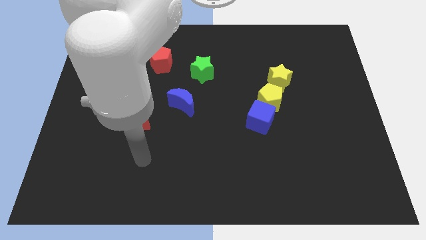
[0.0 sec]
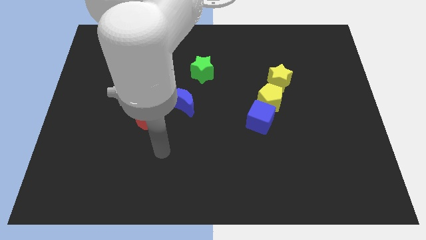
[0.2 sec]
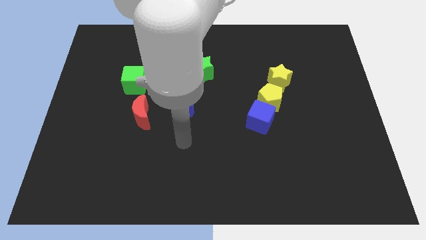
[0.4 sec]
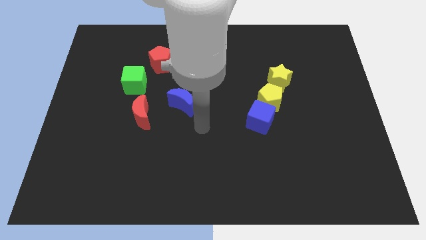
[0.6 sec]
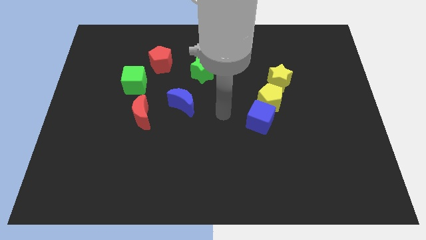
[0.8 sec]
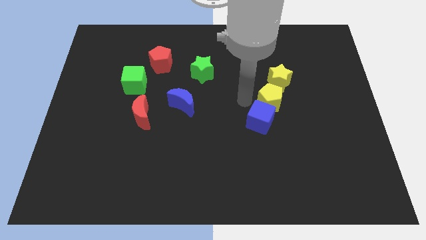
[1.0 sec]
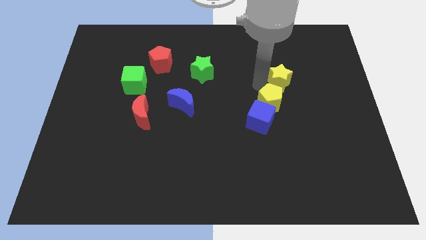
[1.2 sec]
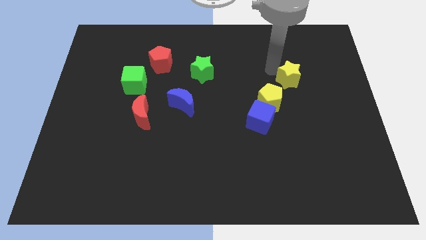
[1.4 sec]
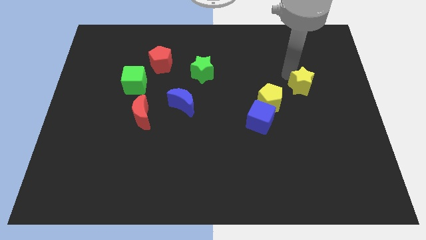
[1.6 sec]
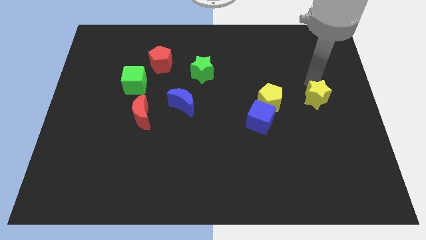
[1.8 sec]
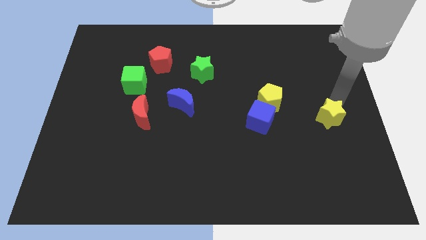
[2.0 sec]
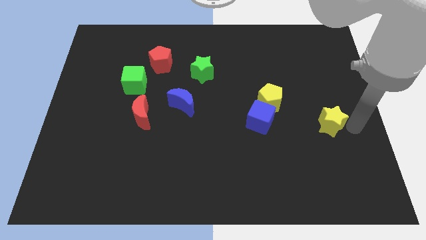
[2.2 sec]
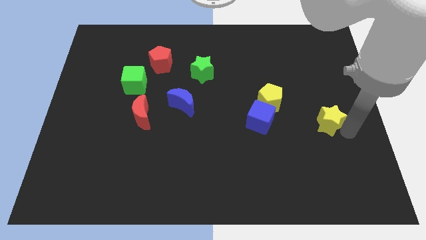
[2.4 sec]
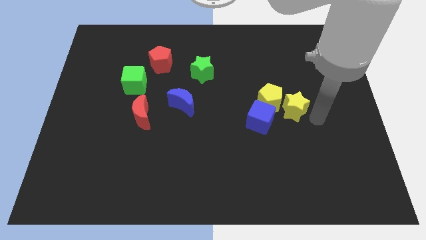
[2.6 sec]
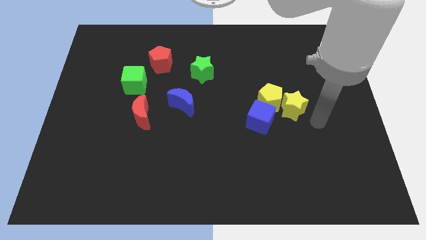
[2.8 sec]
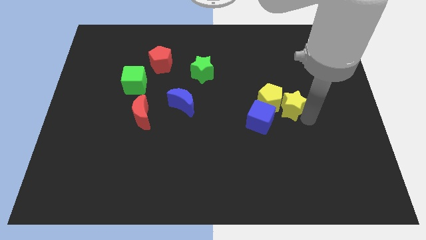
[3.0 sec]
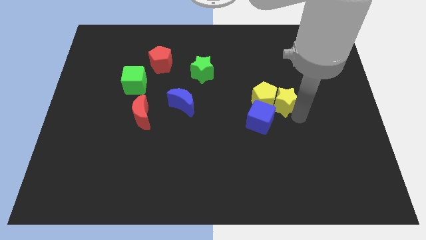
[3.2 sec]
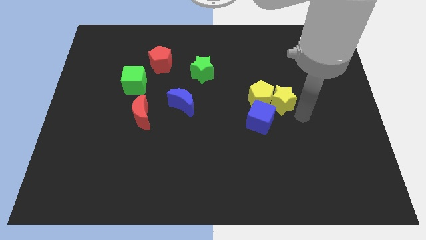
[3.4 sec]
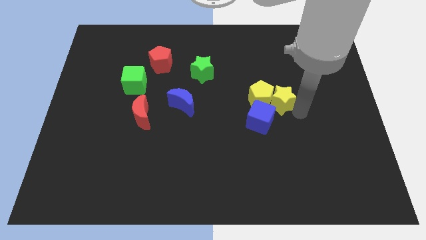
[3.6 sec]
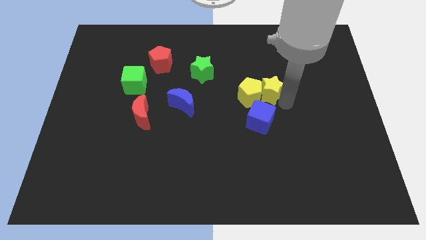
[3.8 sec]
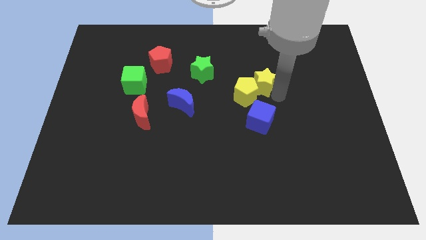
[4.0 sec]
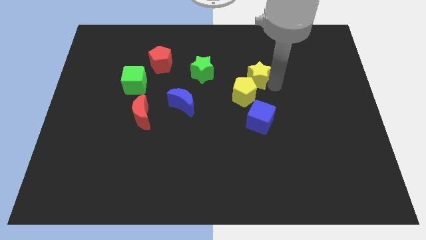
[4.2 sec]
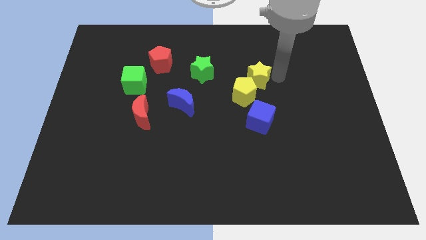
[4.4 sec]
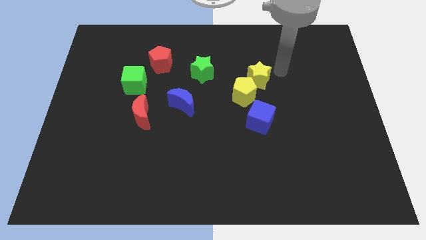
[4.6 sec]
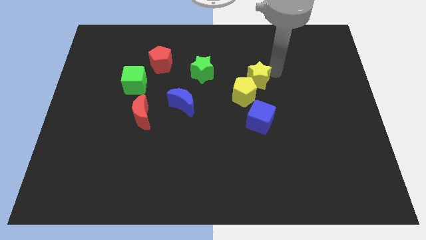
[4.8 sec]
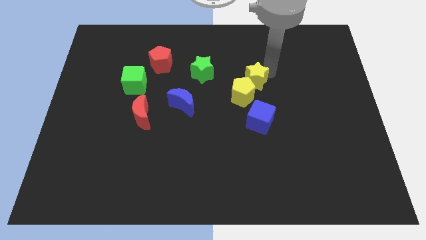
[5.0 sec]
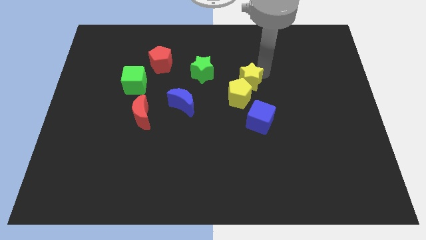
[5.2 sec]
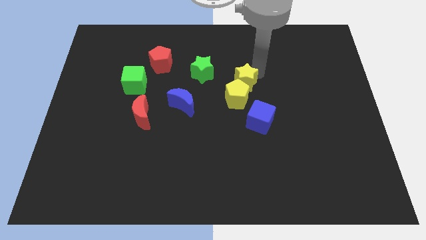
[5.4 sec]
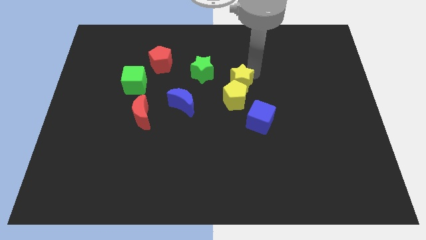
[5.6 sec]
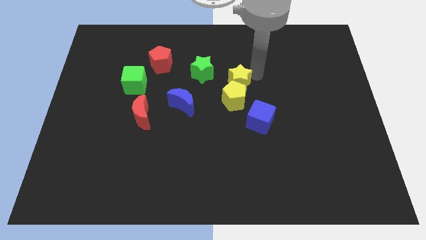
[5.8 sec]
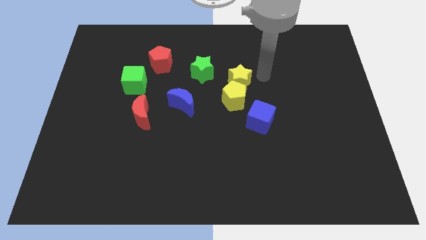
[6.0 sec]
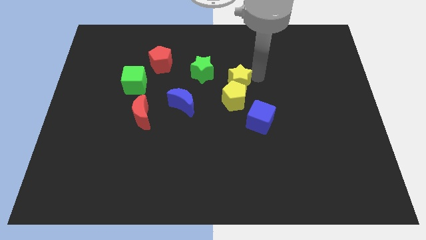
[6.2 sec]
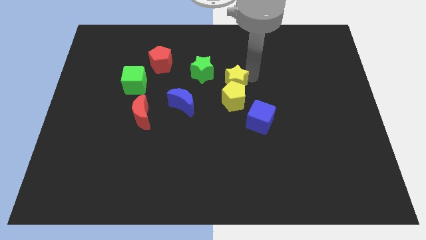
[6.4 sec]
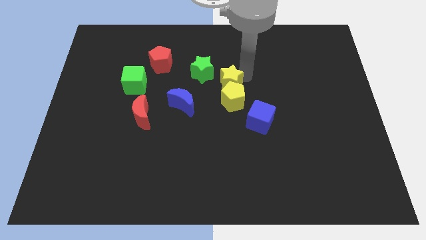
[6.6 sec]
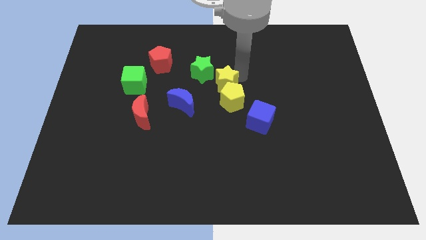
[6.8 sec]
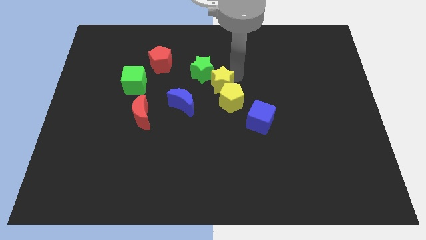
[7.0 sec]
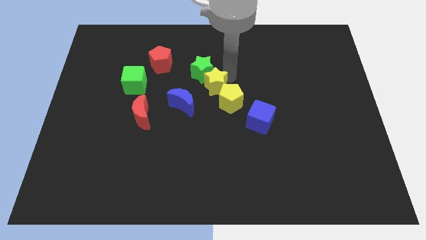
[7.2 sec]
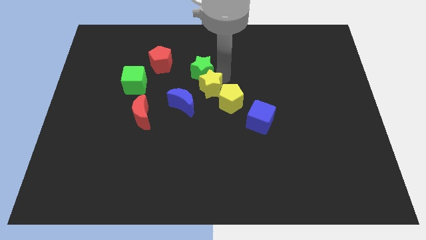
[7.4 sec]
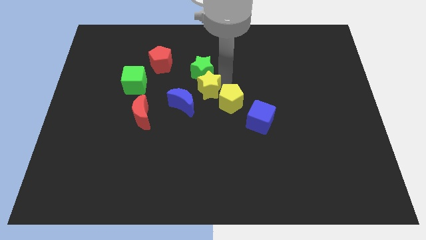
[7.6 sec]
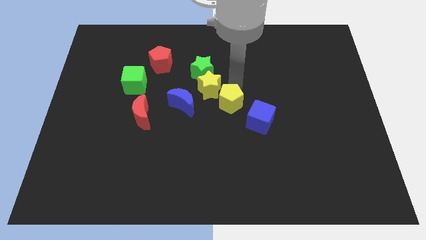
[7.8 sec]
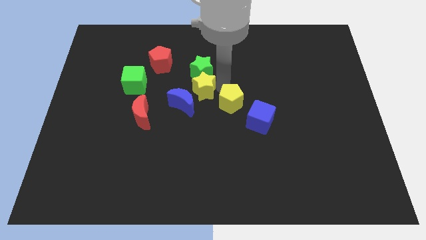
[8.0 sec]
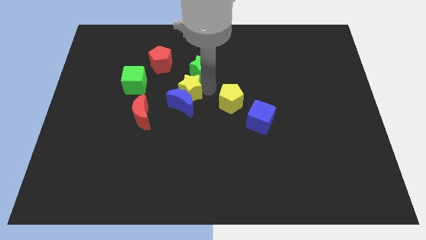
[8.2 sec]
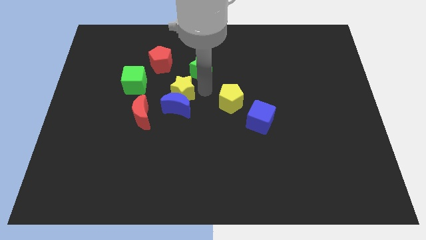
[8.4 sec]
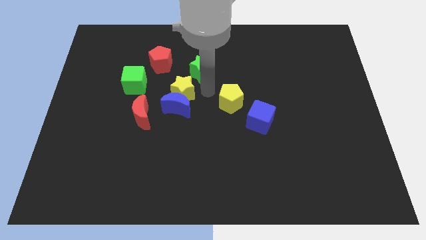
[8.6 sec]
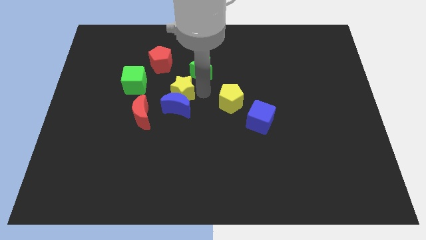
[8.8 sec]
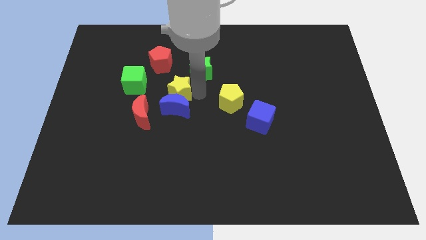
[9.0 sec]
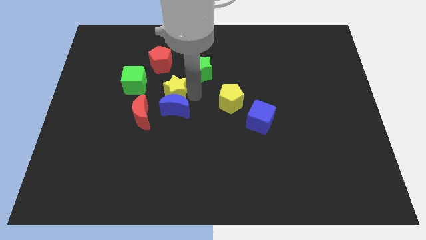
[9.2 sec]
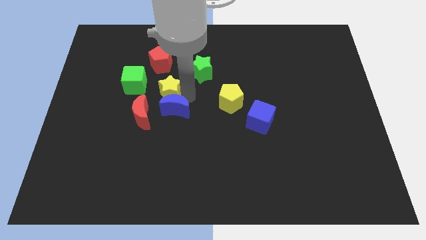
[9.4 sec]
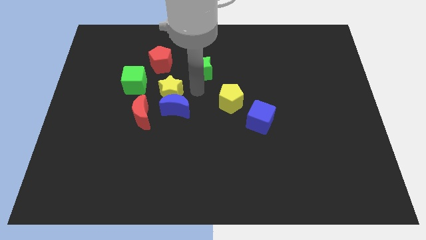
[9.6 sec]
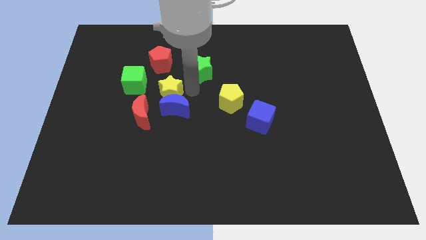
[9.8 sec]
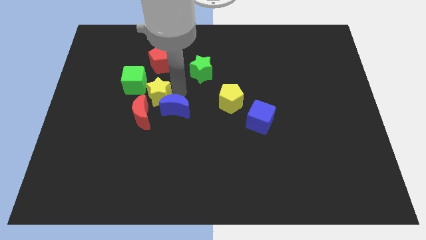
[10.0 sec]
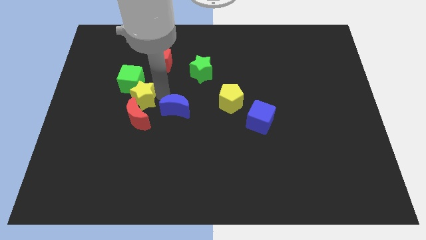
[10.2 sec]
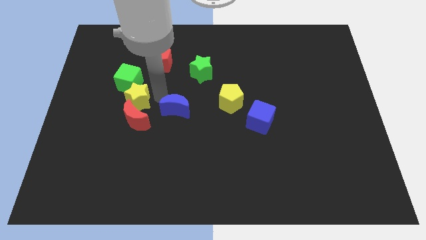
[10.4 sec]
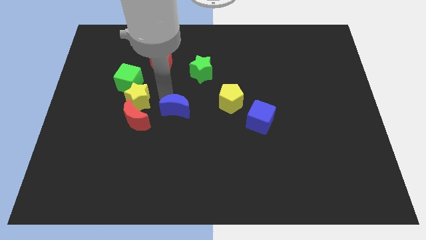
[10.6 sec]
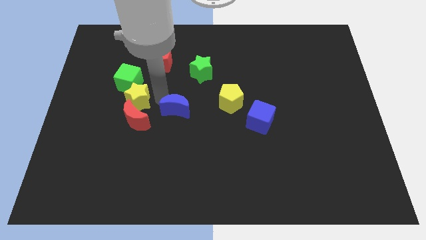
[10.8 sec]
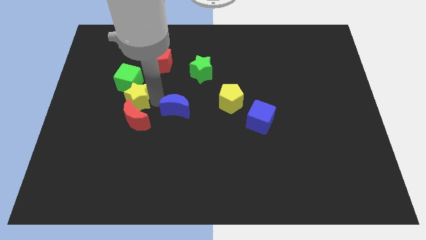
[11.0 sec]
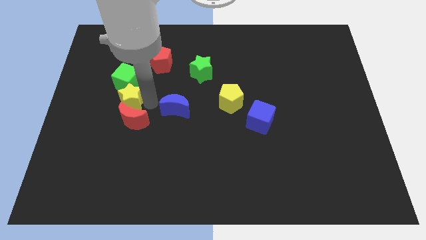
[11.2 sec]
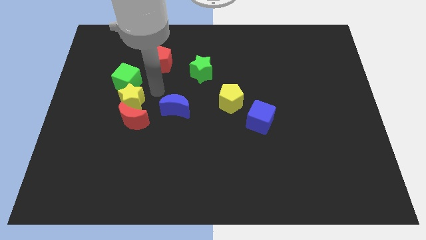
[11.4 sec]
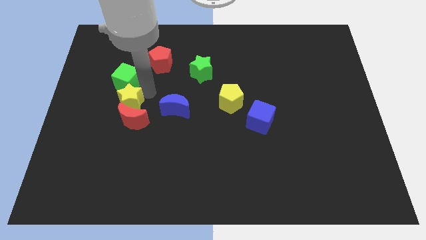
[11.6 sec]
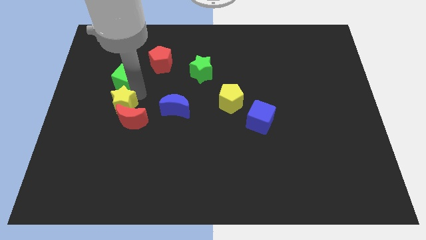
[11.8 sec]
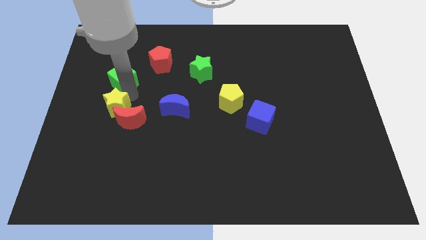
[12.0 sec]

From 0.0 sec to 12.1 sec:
slide the yellow star to the left side of the red moon
